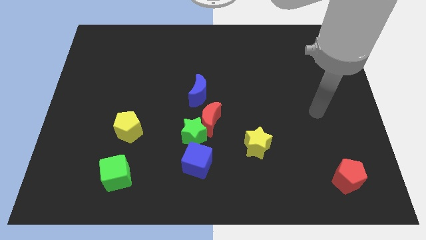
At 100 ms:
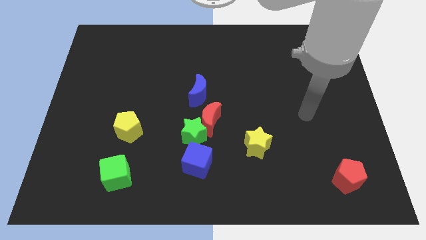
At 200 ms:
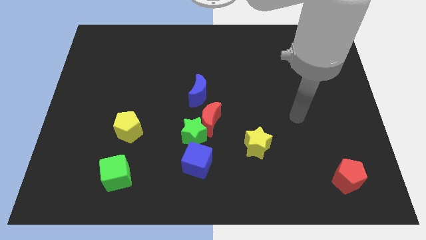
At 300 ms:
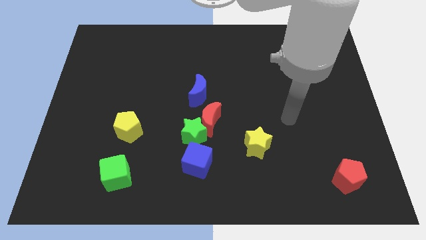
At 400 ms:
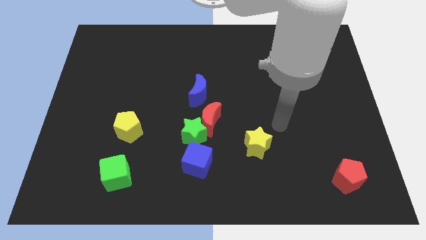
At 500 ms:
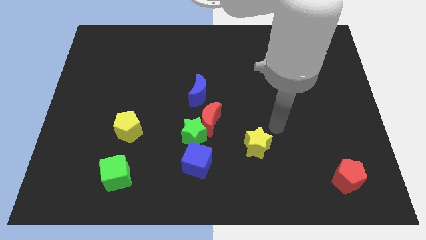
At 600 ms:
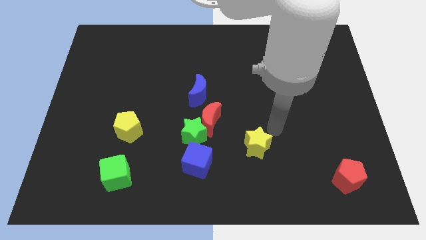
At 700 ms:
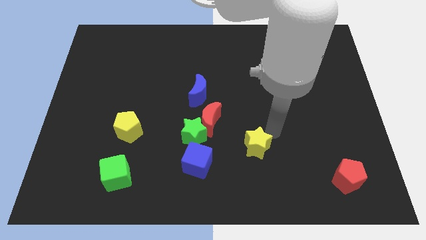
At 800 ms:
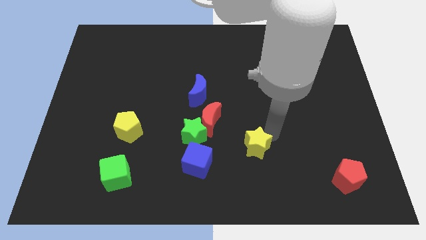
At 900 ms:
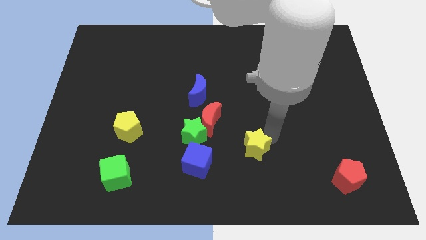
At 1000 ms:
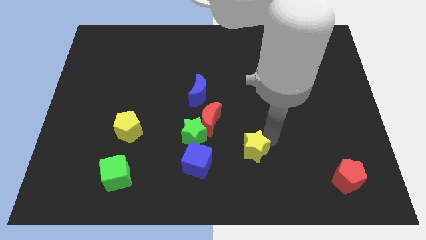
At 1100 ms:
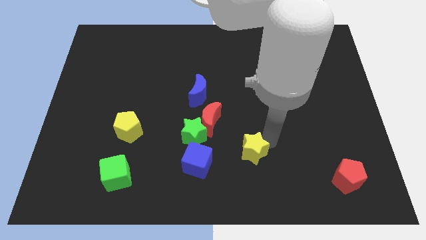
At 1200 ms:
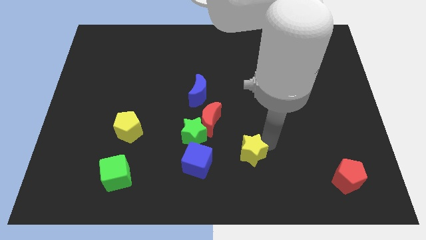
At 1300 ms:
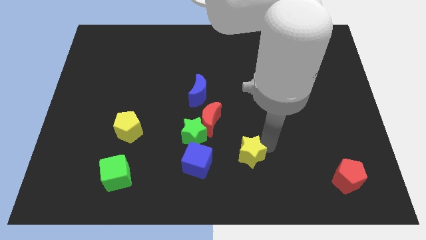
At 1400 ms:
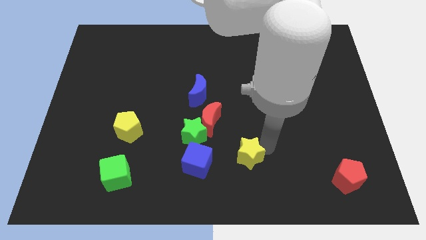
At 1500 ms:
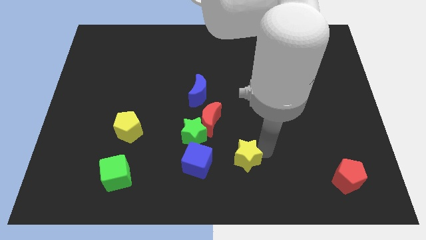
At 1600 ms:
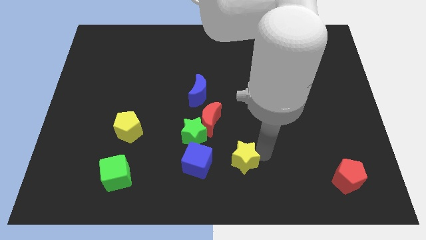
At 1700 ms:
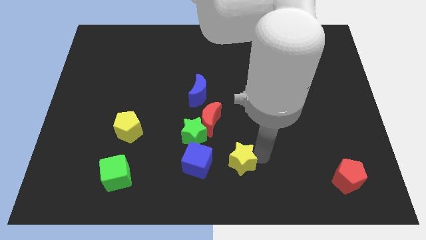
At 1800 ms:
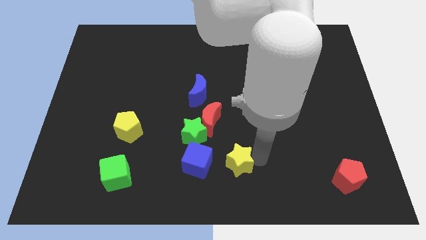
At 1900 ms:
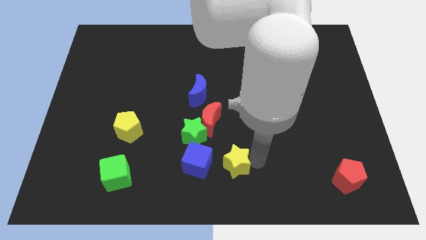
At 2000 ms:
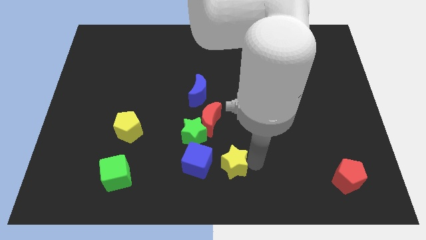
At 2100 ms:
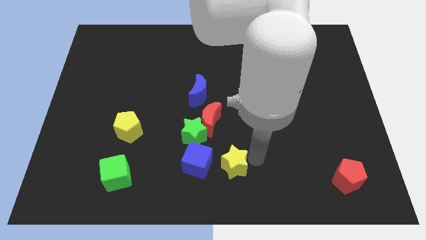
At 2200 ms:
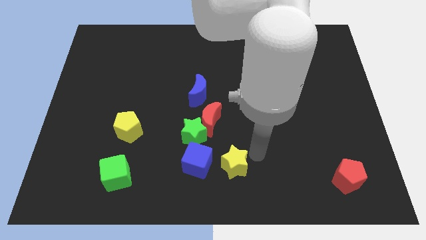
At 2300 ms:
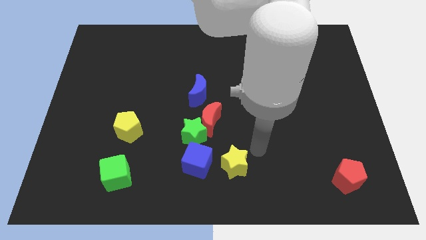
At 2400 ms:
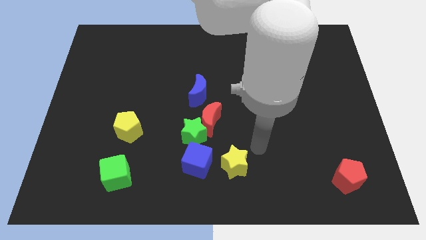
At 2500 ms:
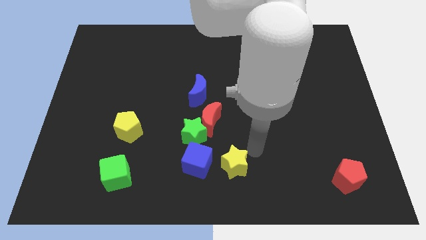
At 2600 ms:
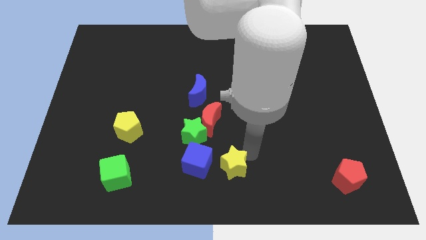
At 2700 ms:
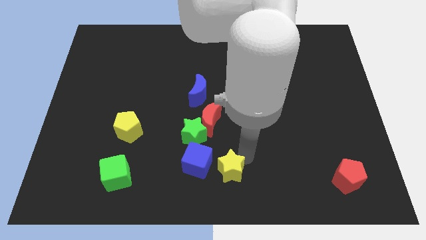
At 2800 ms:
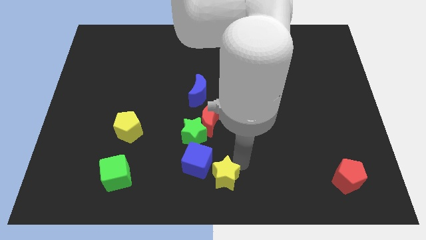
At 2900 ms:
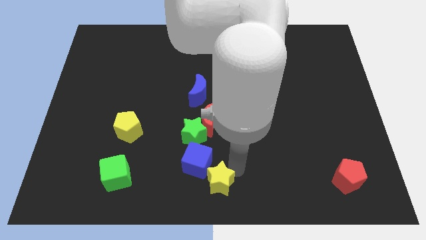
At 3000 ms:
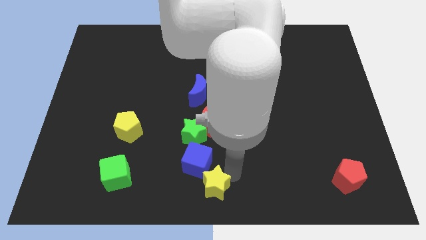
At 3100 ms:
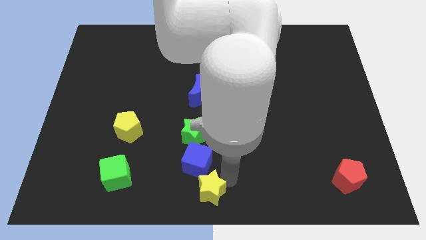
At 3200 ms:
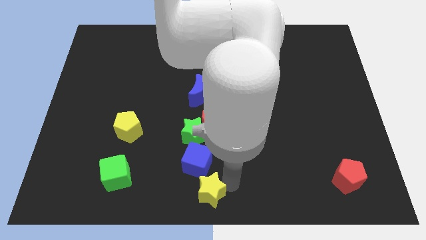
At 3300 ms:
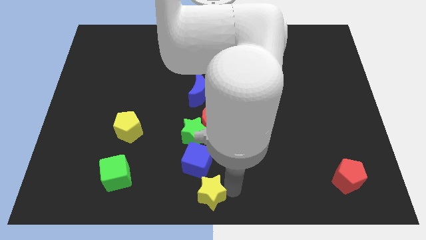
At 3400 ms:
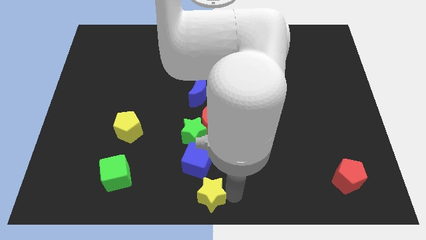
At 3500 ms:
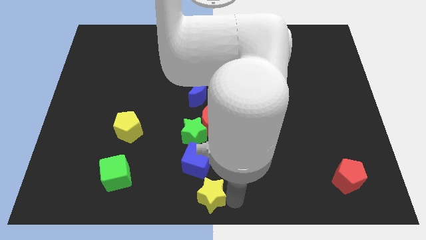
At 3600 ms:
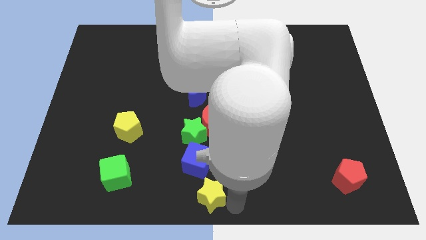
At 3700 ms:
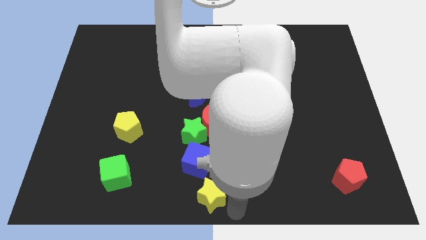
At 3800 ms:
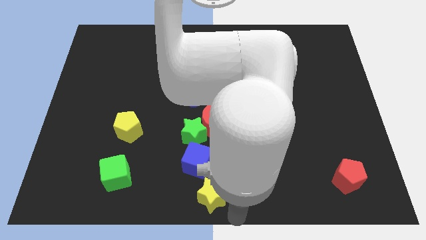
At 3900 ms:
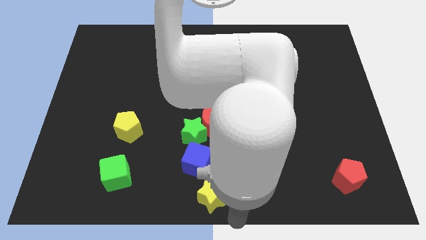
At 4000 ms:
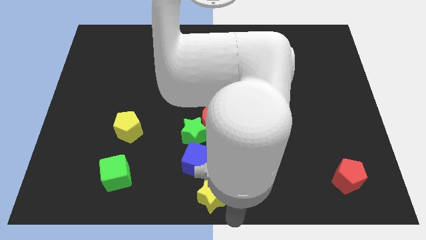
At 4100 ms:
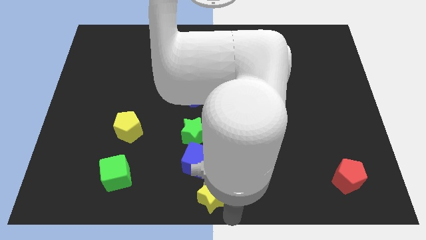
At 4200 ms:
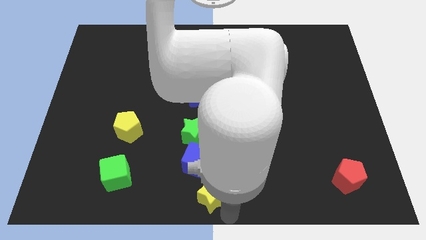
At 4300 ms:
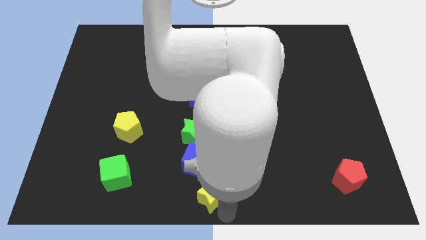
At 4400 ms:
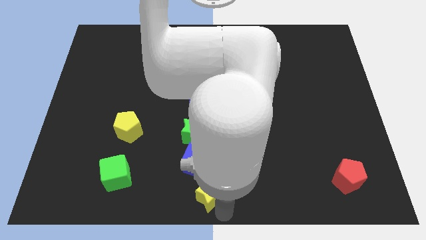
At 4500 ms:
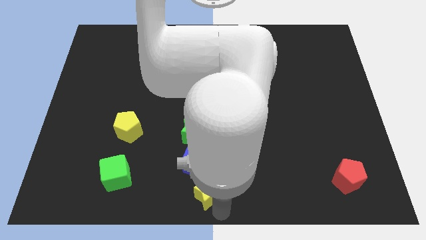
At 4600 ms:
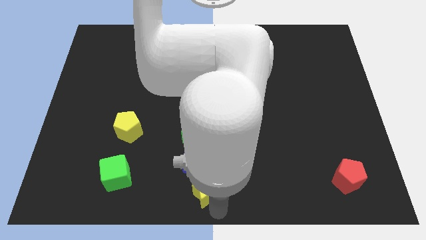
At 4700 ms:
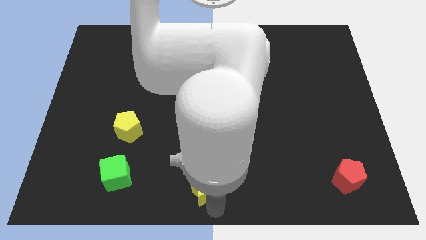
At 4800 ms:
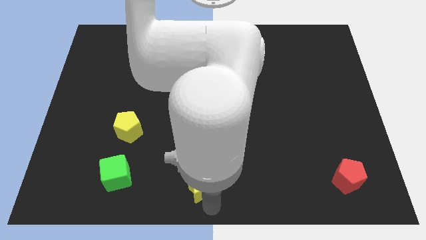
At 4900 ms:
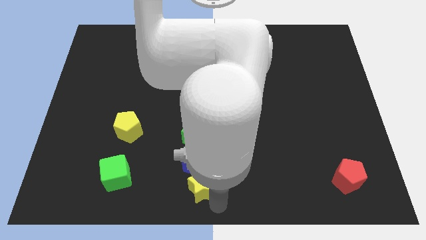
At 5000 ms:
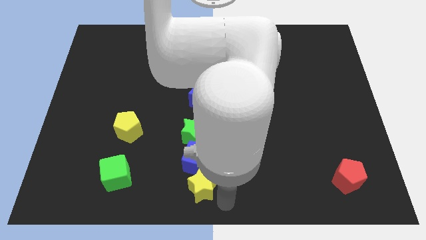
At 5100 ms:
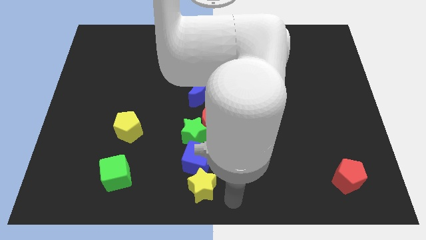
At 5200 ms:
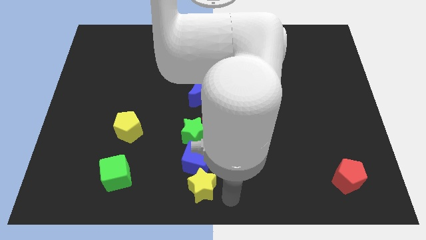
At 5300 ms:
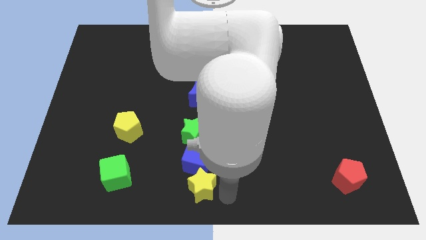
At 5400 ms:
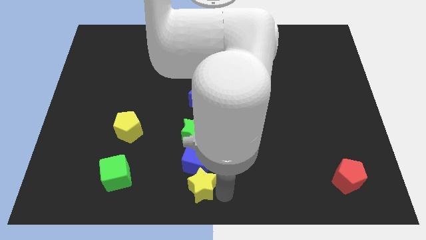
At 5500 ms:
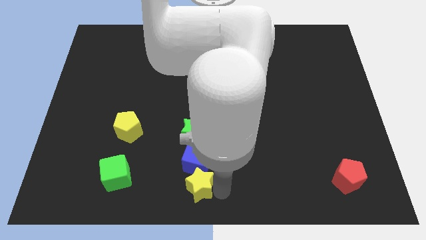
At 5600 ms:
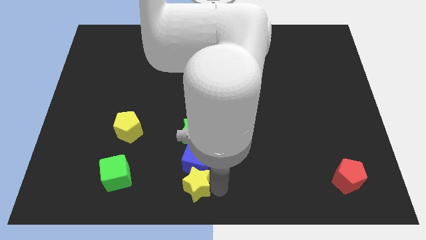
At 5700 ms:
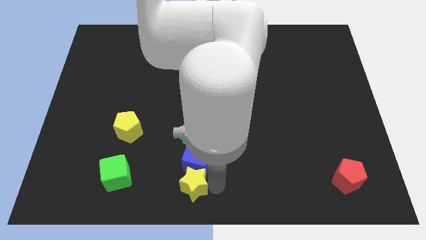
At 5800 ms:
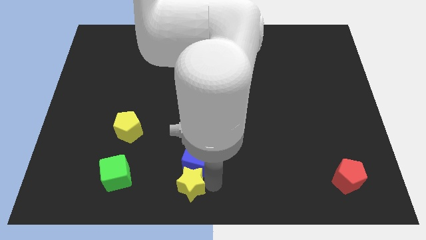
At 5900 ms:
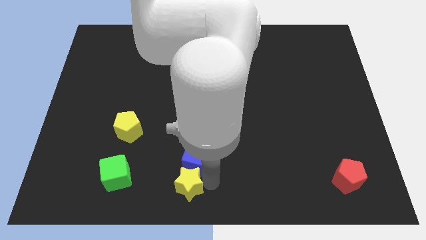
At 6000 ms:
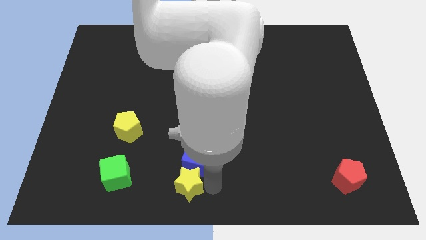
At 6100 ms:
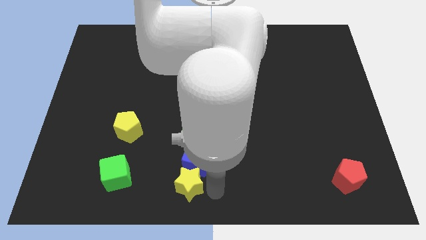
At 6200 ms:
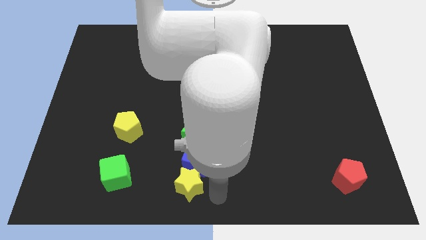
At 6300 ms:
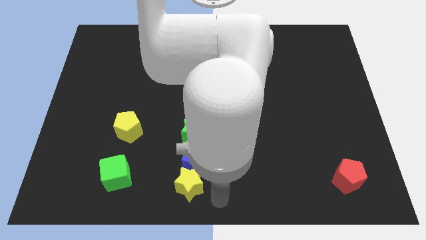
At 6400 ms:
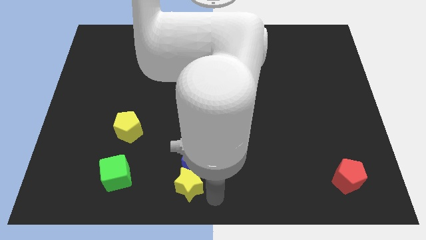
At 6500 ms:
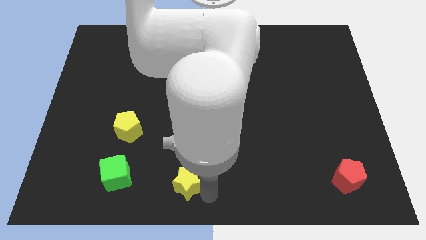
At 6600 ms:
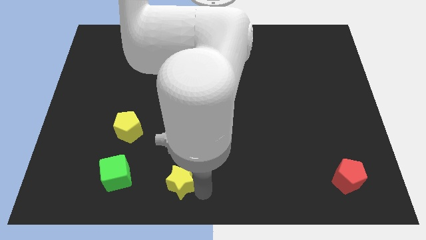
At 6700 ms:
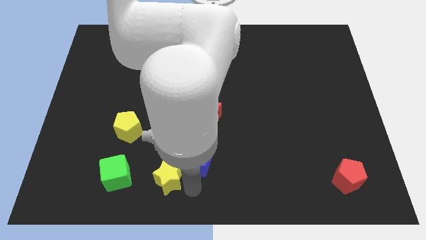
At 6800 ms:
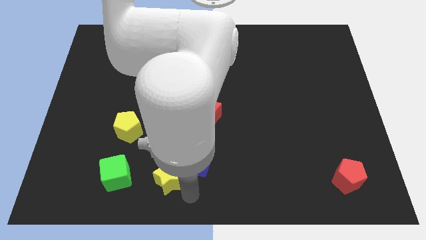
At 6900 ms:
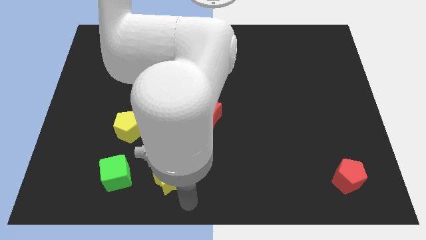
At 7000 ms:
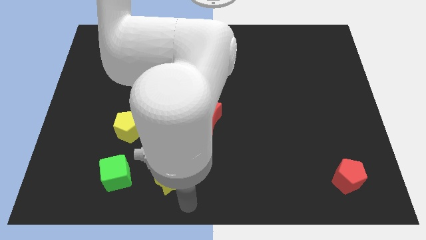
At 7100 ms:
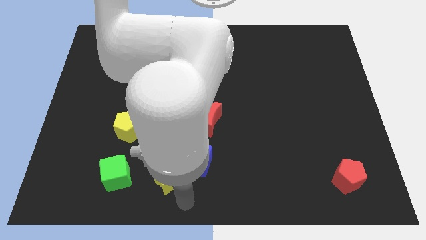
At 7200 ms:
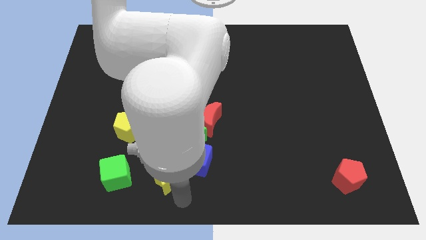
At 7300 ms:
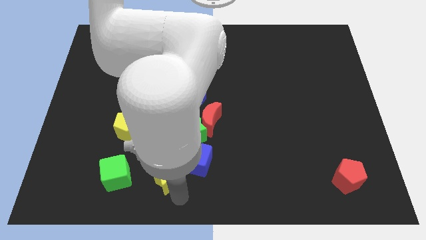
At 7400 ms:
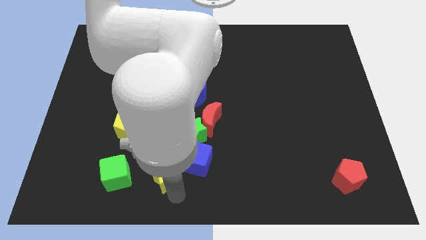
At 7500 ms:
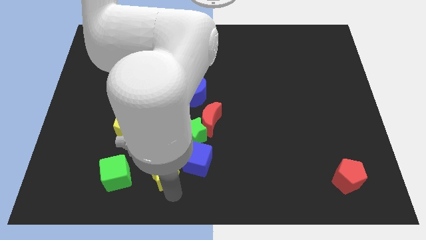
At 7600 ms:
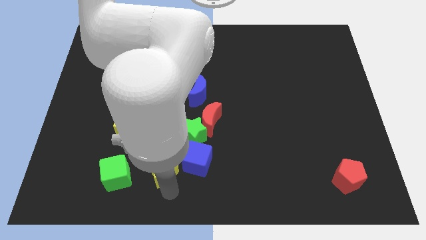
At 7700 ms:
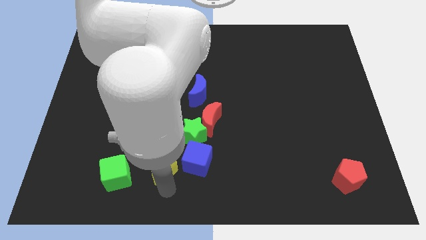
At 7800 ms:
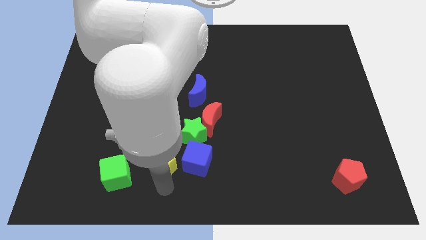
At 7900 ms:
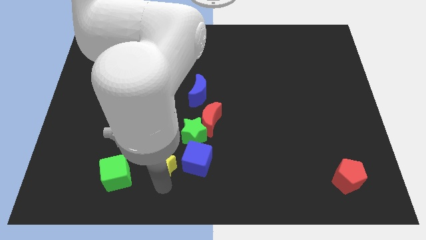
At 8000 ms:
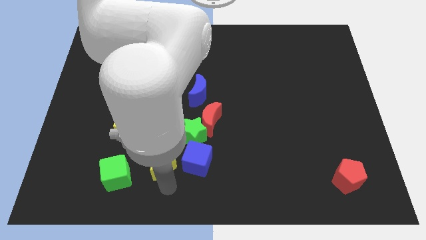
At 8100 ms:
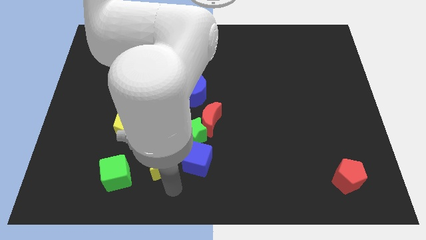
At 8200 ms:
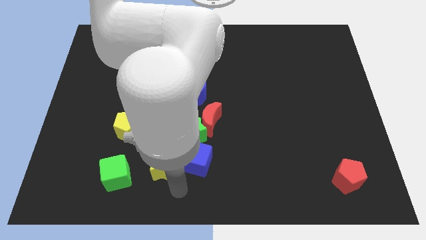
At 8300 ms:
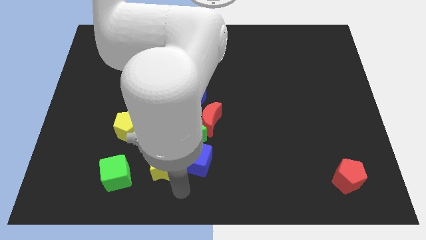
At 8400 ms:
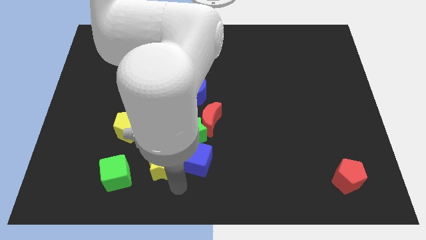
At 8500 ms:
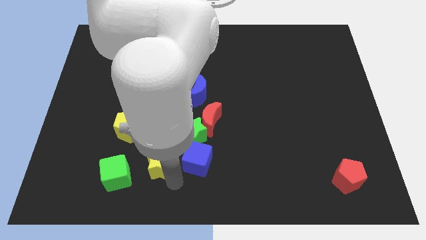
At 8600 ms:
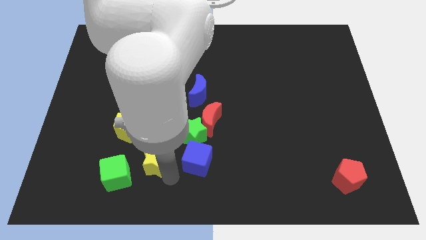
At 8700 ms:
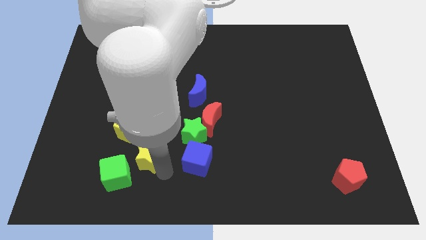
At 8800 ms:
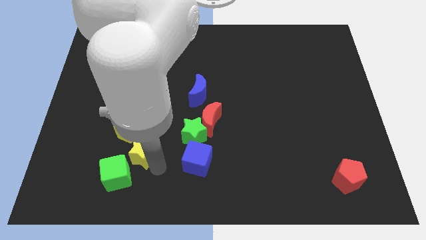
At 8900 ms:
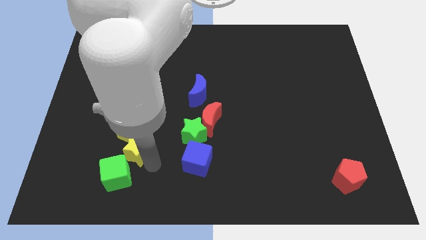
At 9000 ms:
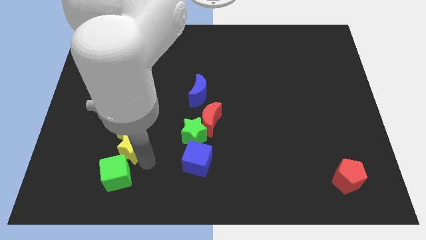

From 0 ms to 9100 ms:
move the yellow star close to the yellow pentagon
